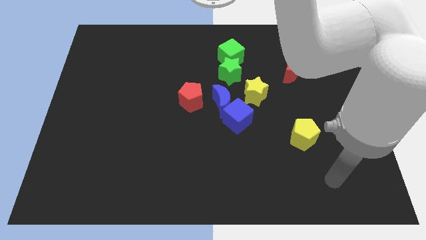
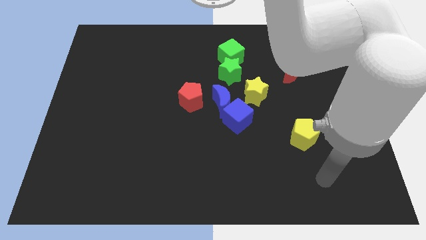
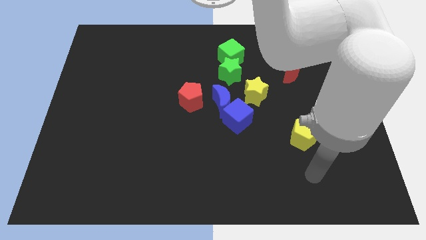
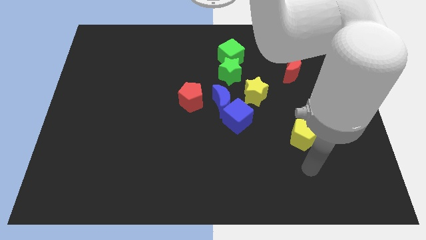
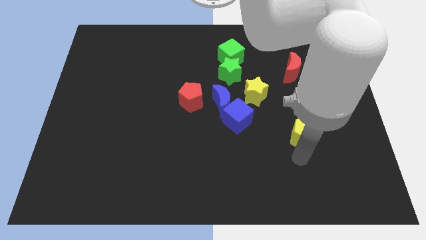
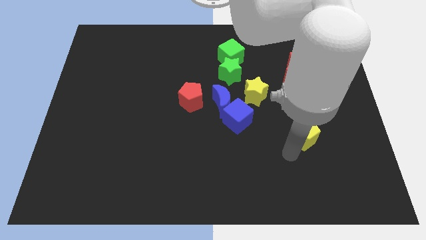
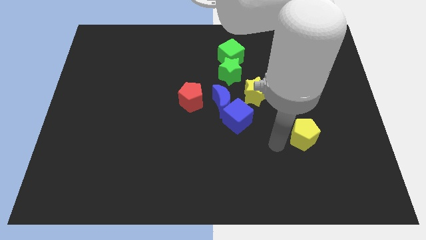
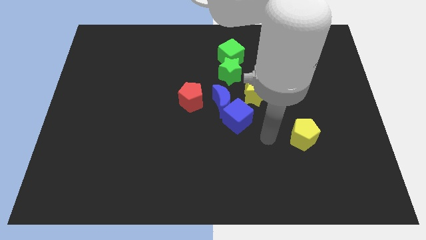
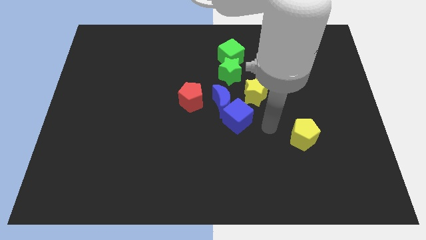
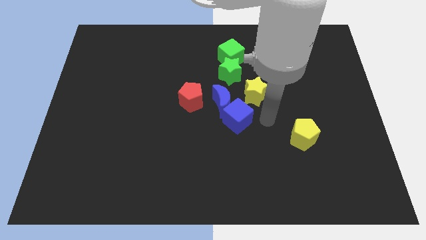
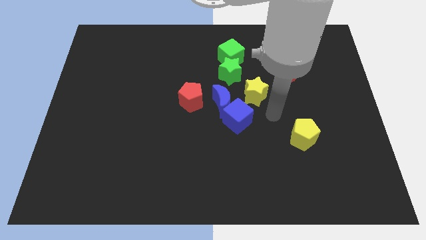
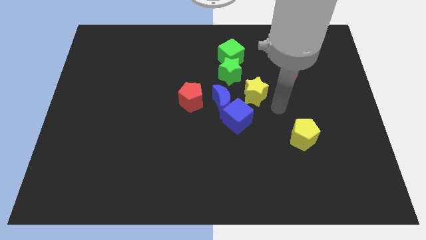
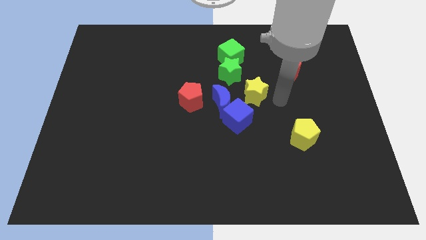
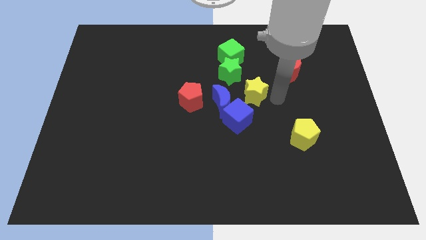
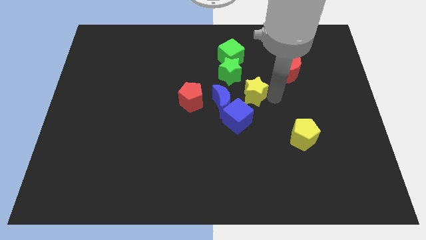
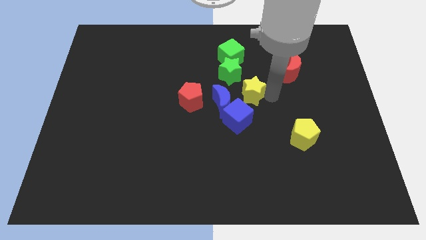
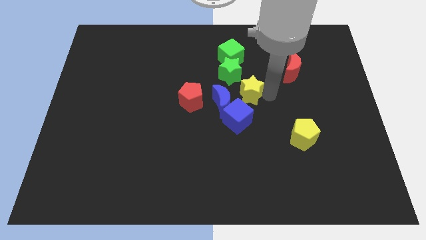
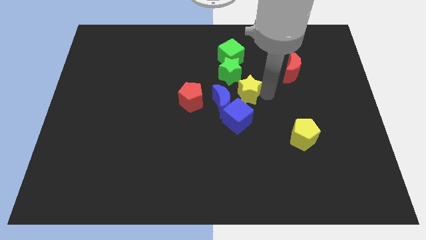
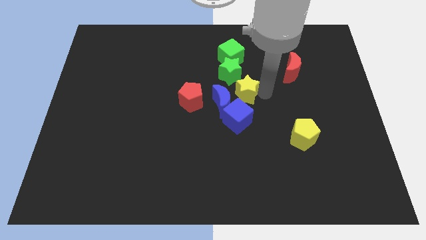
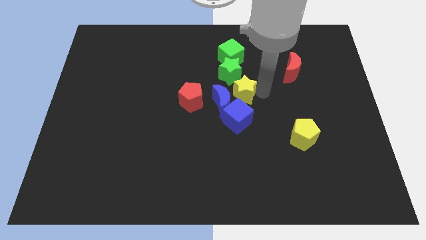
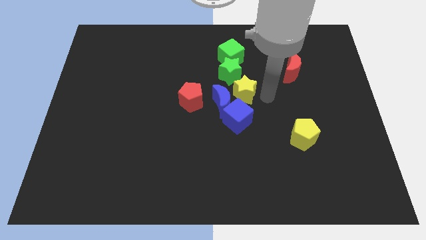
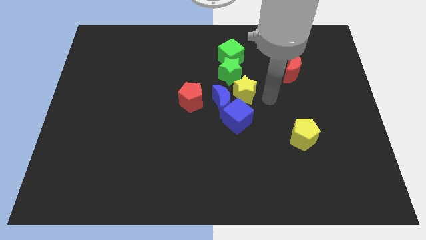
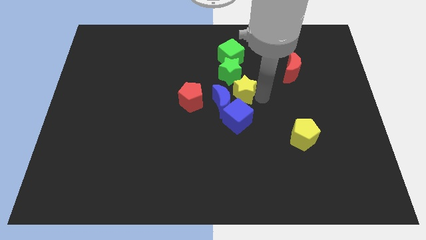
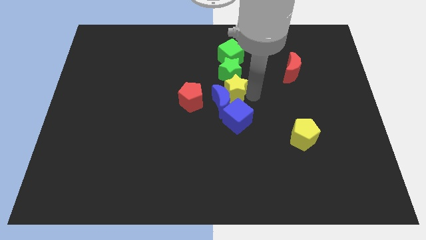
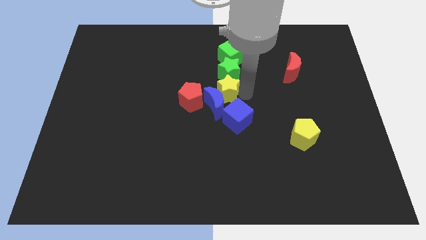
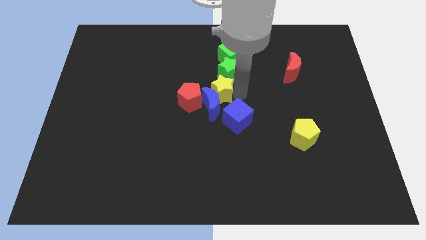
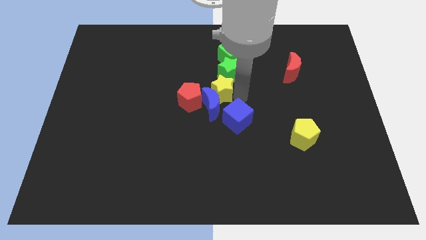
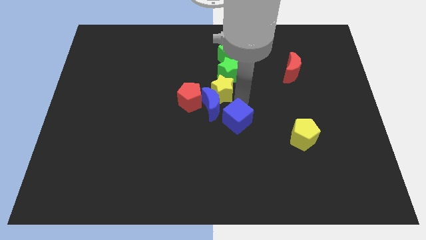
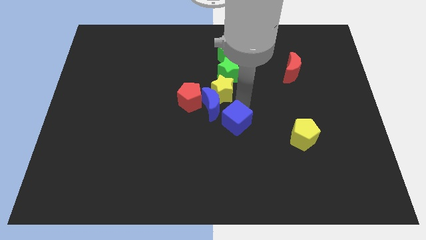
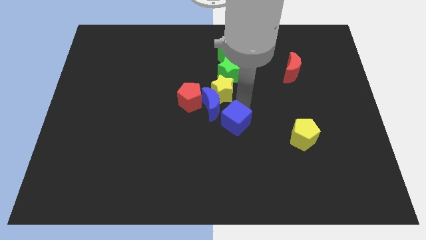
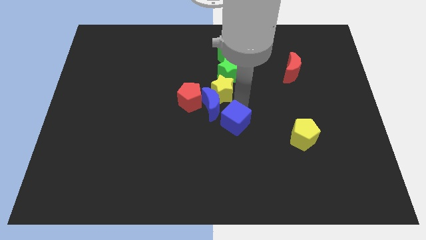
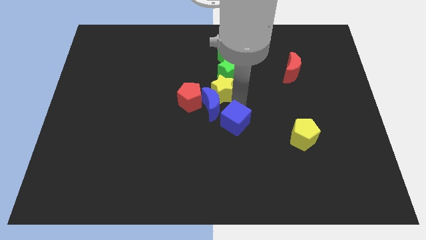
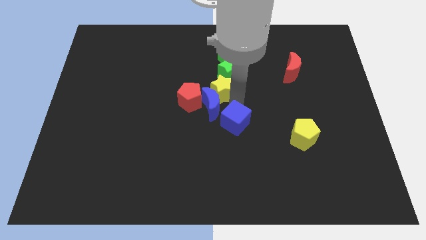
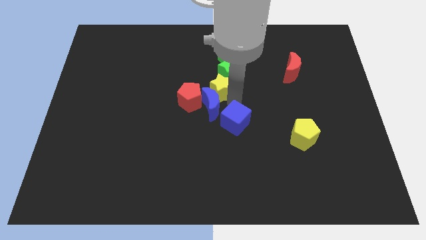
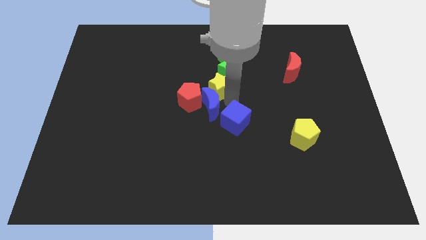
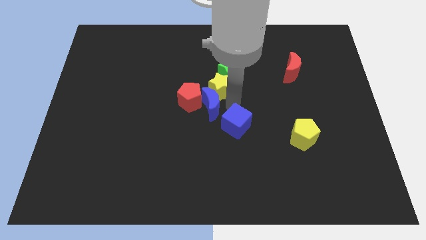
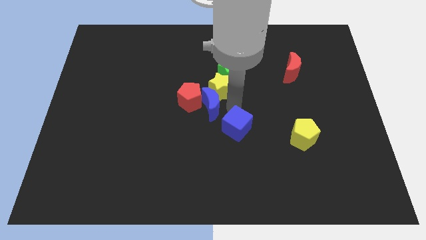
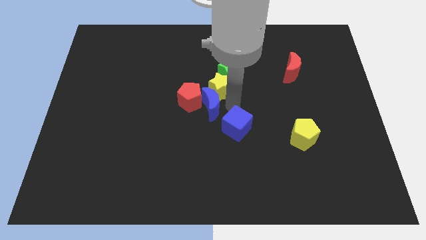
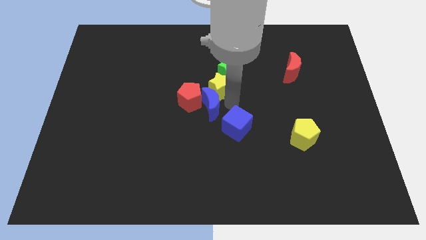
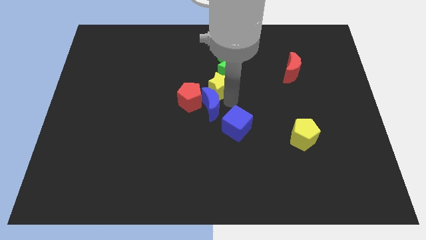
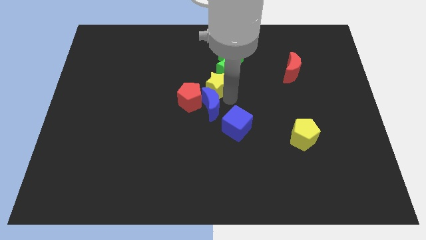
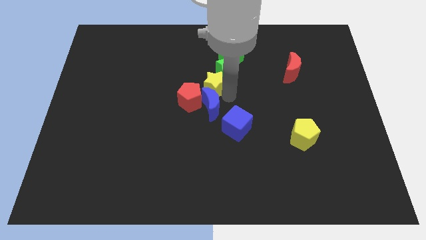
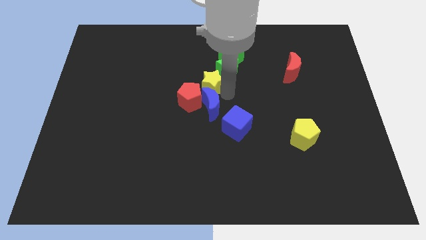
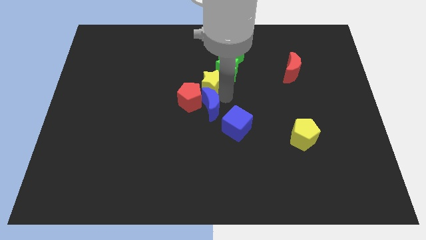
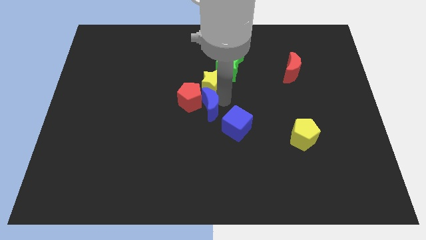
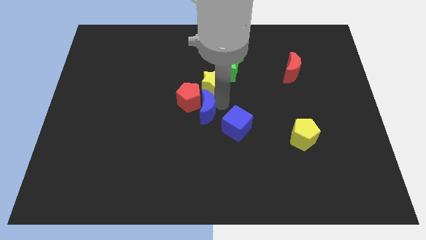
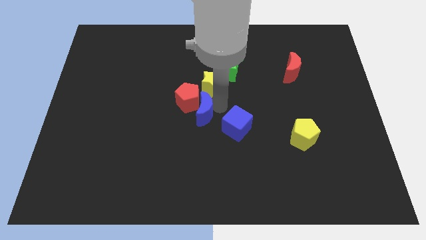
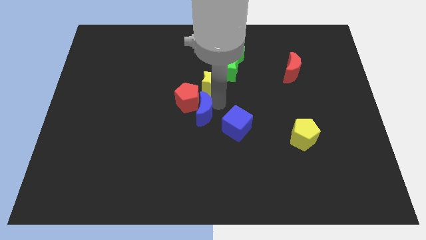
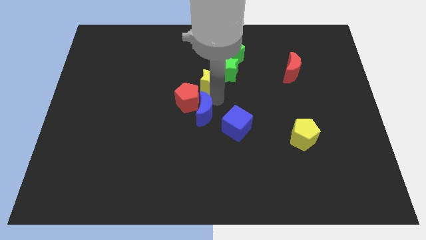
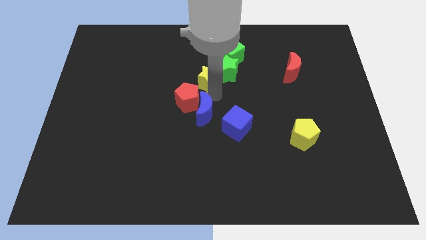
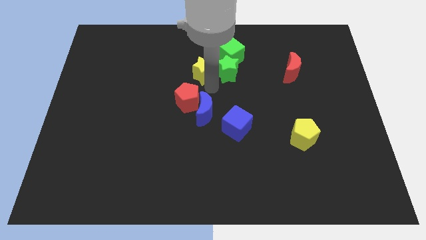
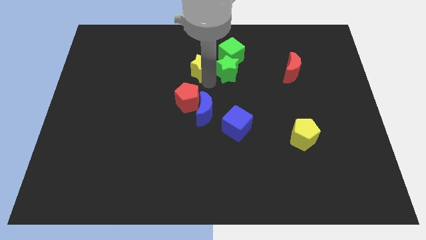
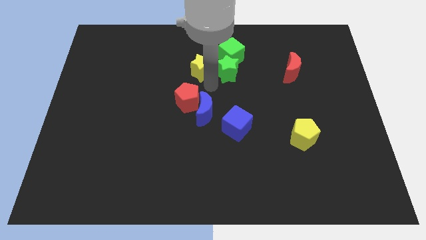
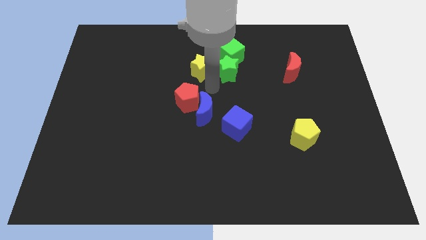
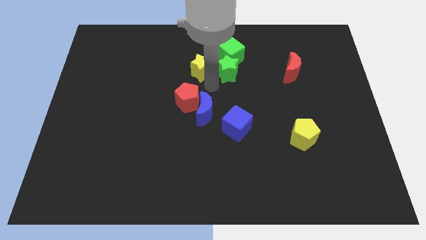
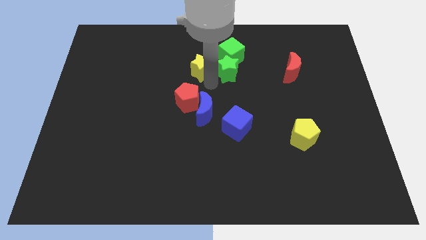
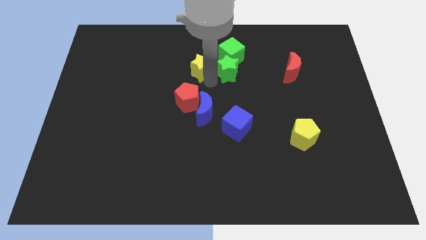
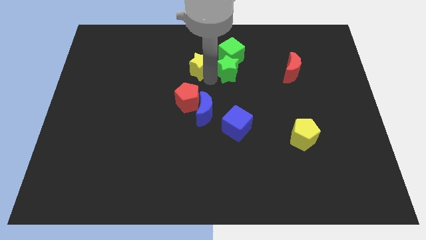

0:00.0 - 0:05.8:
slide the yellow star to the left of the green cube

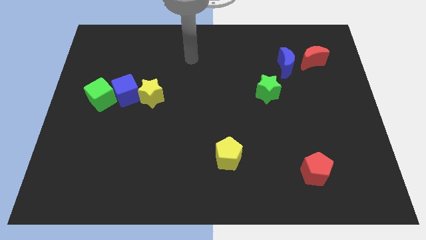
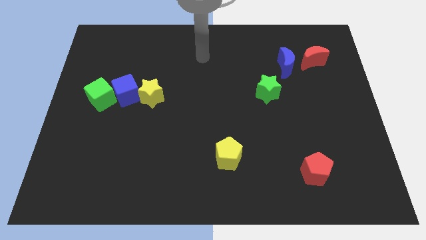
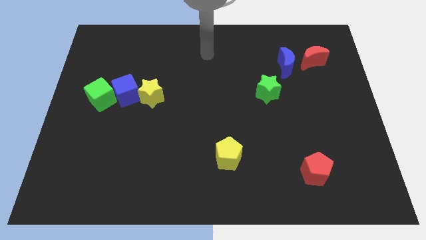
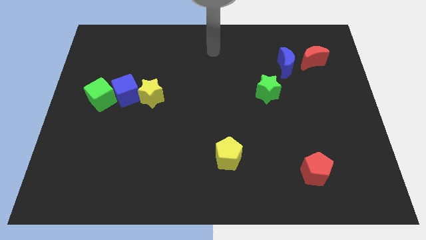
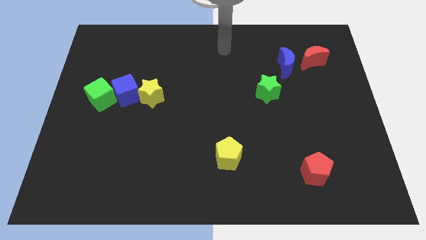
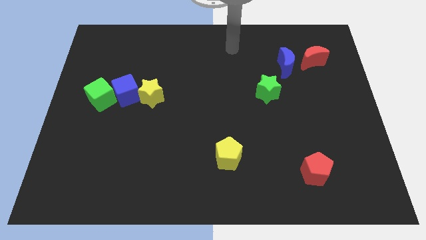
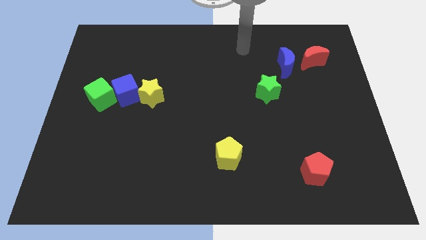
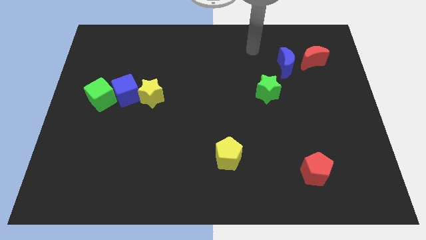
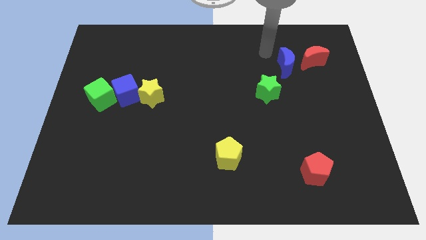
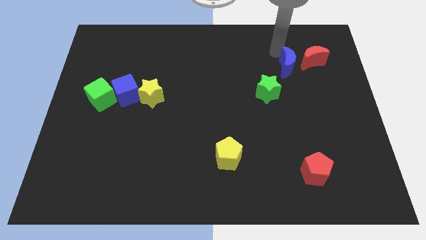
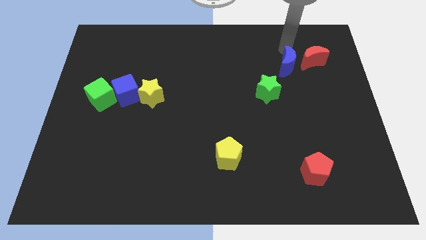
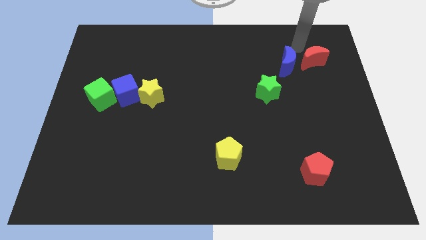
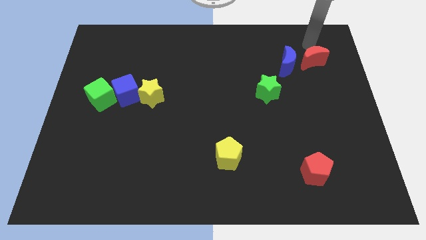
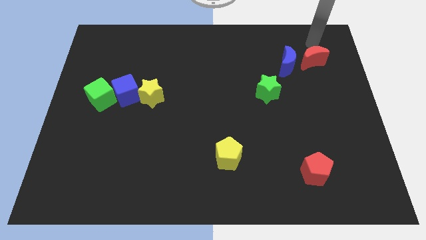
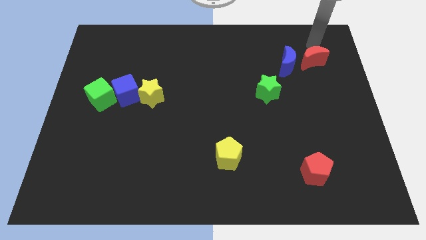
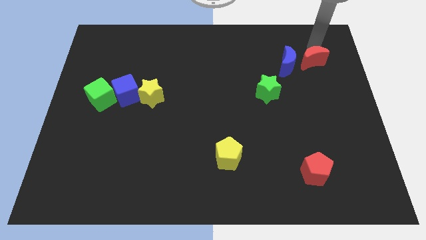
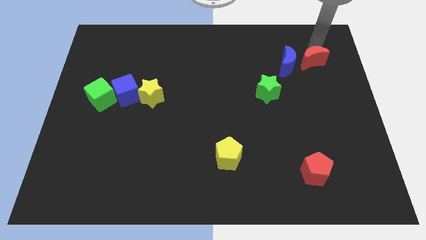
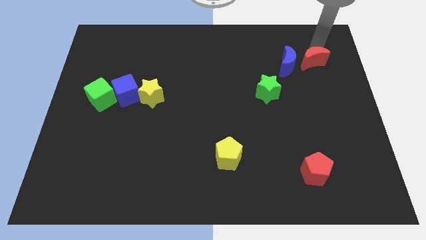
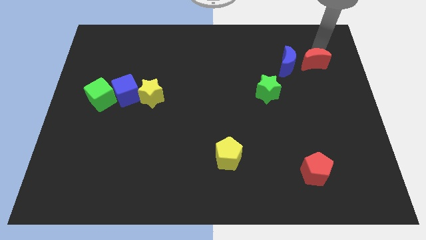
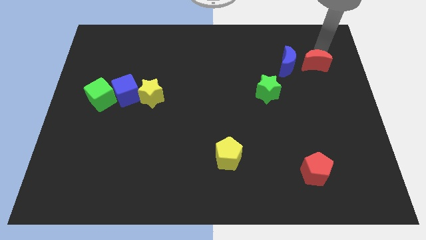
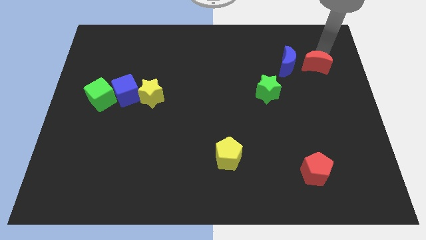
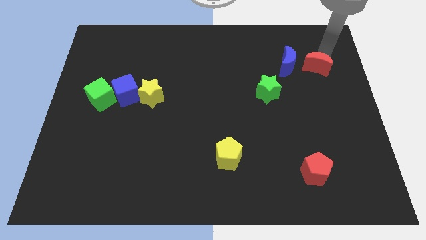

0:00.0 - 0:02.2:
slide the red moon to the bottom right side of the blue moon
